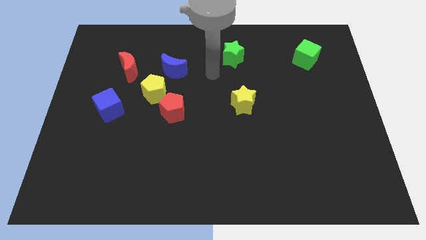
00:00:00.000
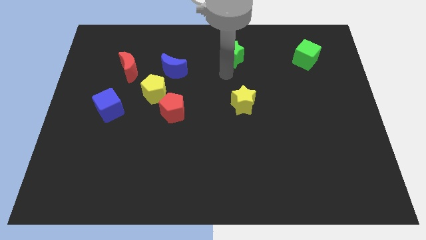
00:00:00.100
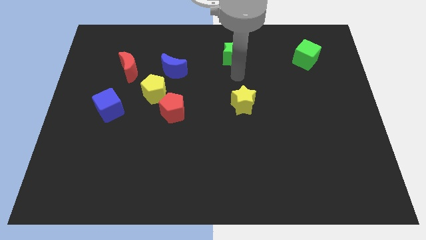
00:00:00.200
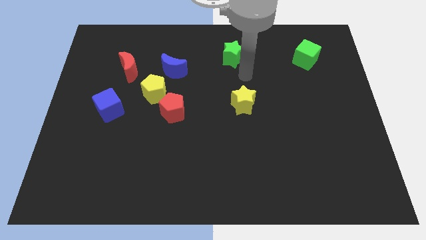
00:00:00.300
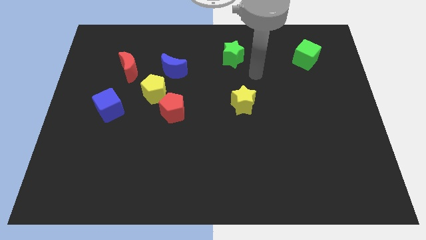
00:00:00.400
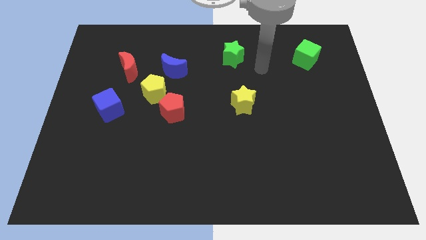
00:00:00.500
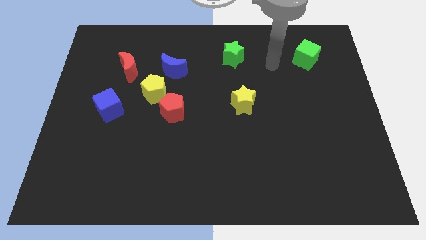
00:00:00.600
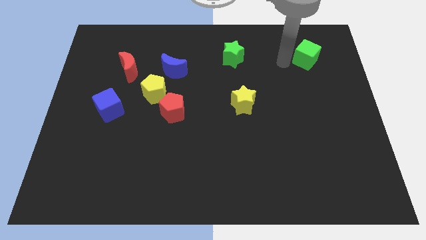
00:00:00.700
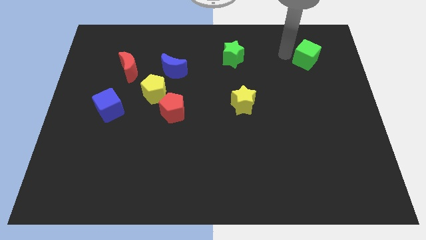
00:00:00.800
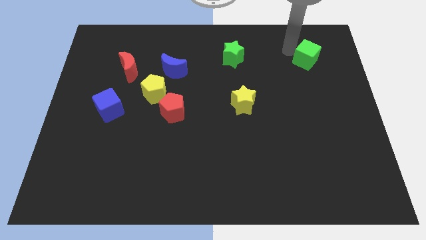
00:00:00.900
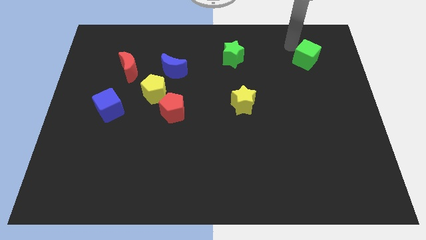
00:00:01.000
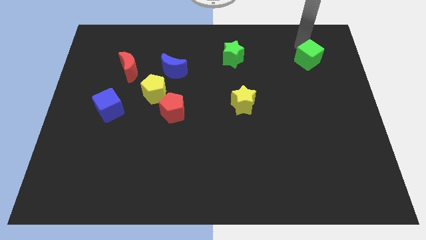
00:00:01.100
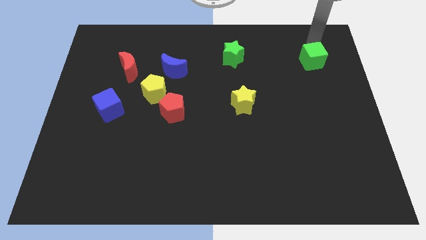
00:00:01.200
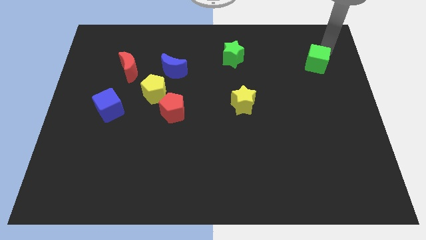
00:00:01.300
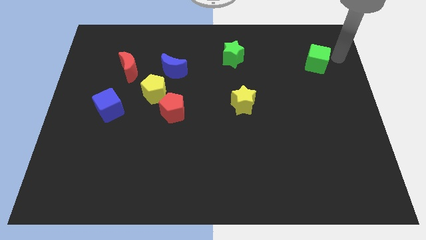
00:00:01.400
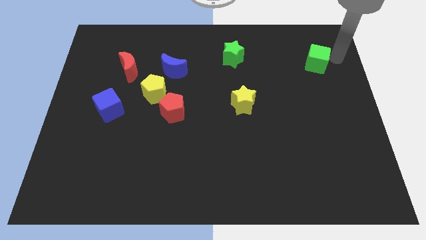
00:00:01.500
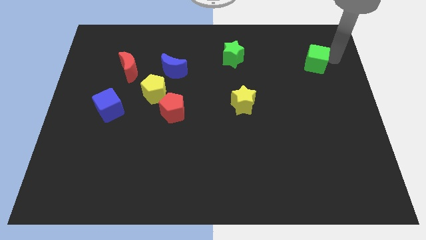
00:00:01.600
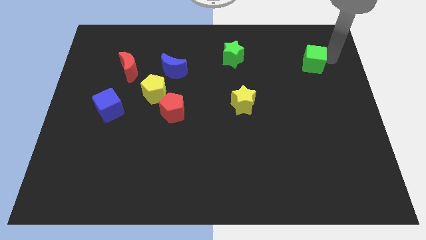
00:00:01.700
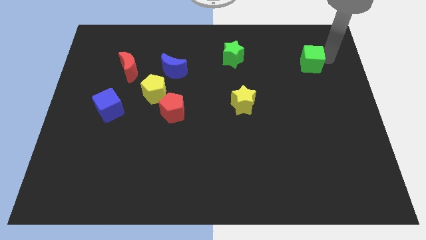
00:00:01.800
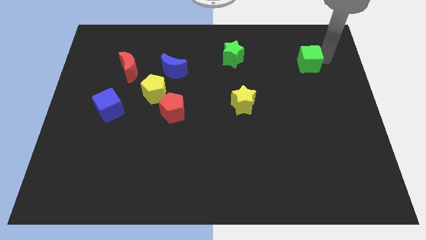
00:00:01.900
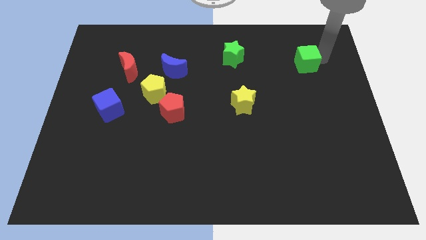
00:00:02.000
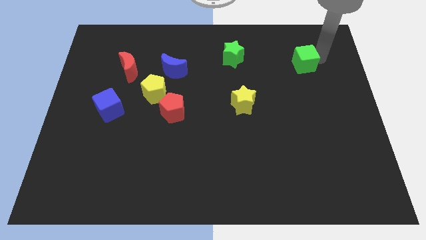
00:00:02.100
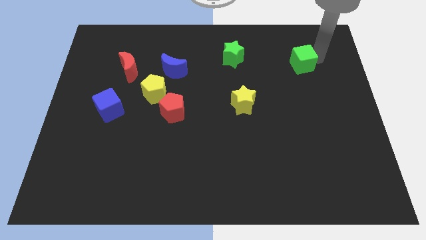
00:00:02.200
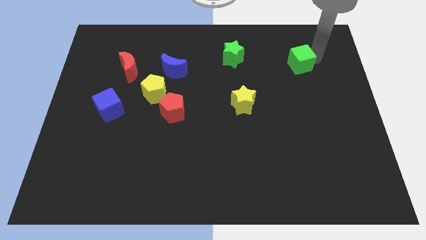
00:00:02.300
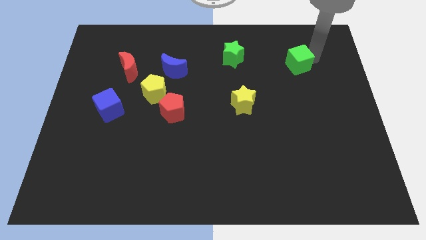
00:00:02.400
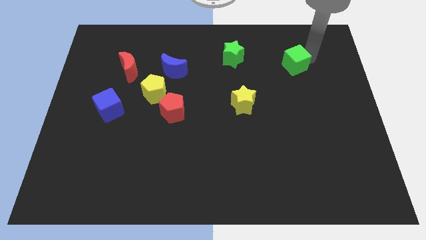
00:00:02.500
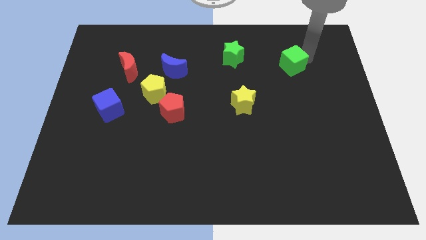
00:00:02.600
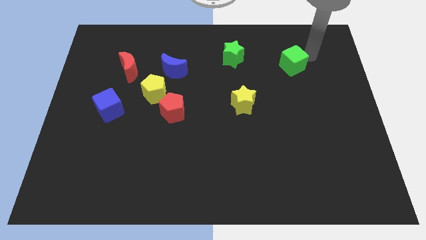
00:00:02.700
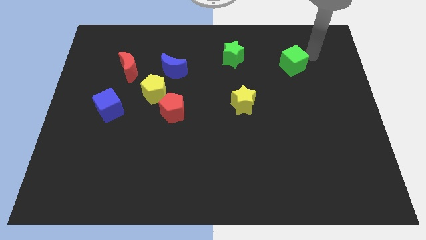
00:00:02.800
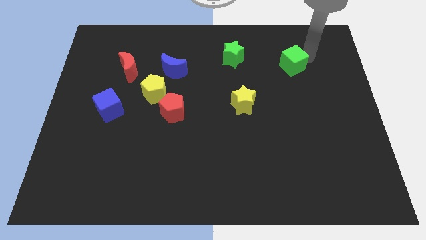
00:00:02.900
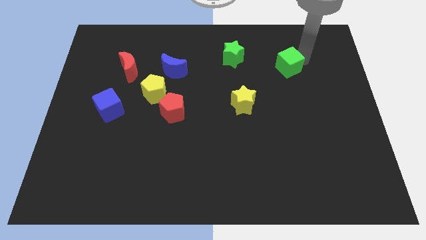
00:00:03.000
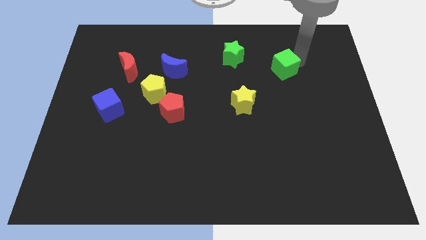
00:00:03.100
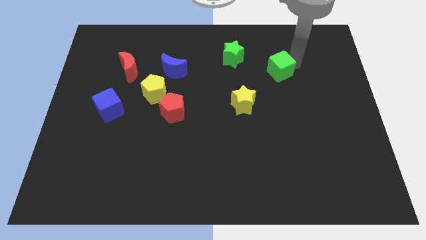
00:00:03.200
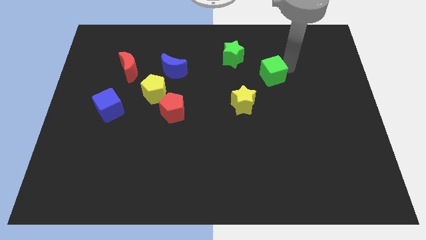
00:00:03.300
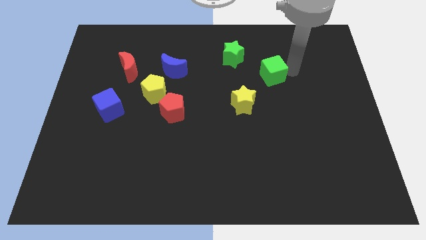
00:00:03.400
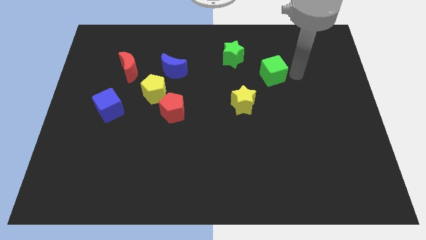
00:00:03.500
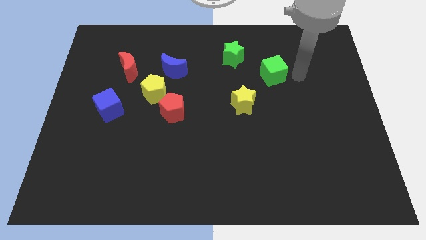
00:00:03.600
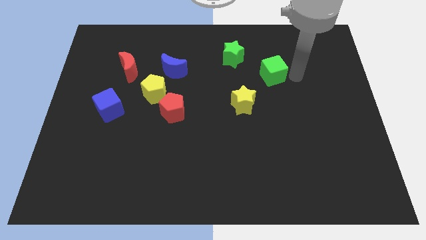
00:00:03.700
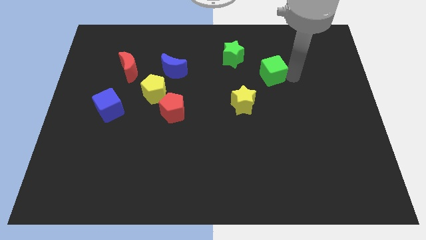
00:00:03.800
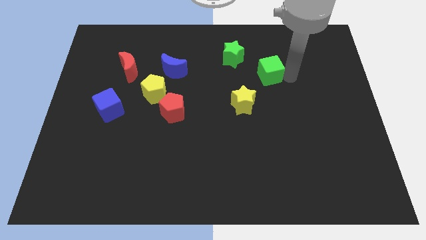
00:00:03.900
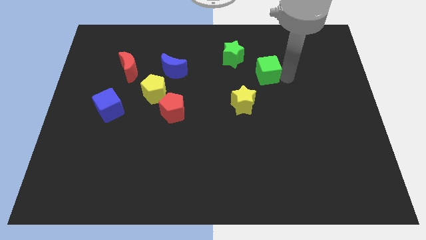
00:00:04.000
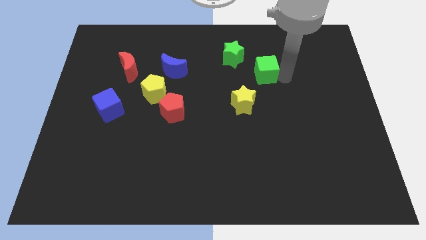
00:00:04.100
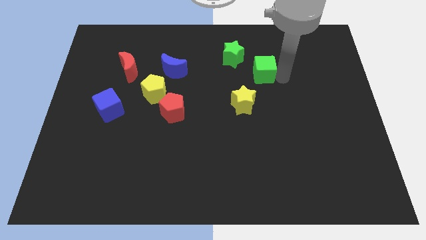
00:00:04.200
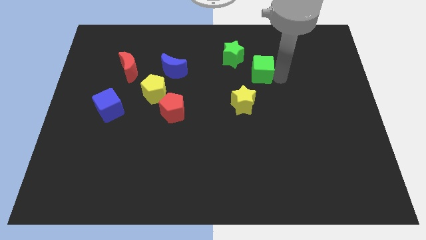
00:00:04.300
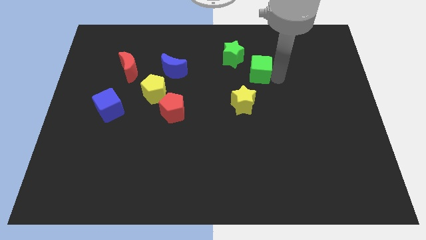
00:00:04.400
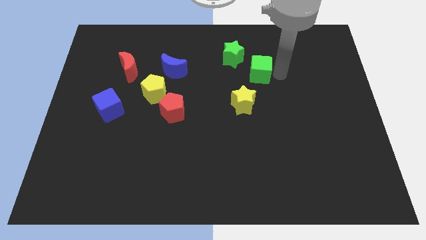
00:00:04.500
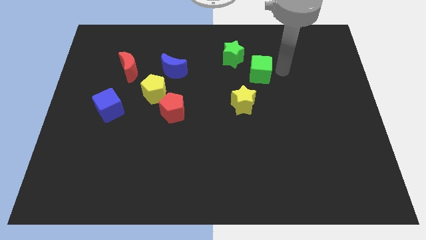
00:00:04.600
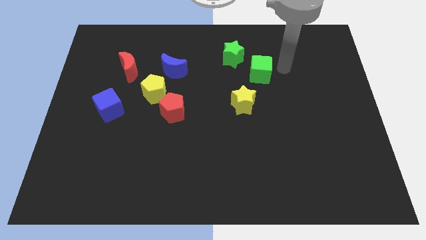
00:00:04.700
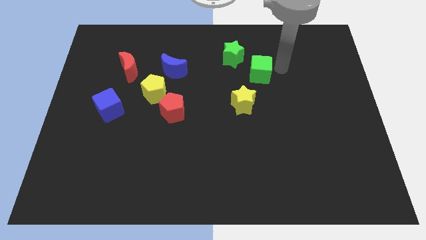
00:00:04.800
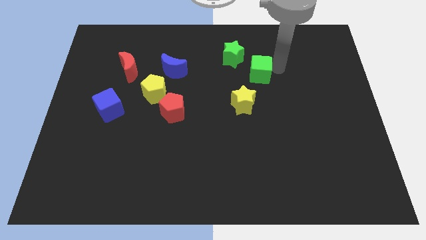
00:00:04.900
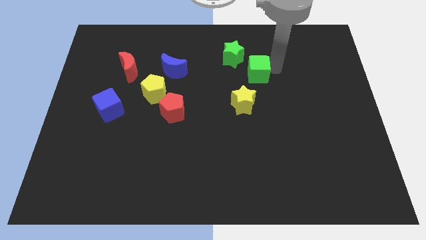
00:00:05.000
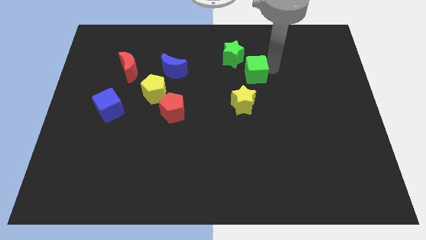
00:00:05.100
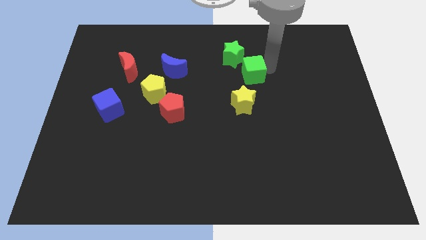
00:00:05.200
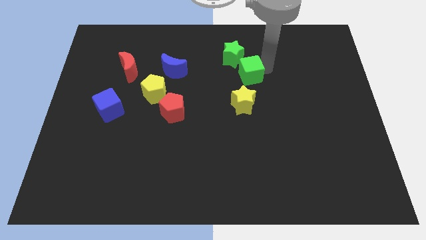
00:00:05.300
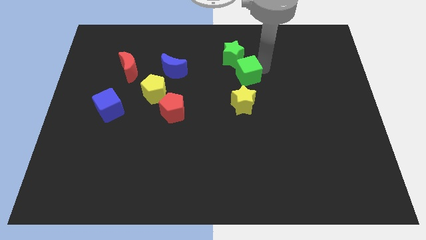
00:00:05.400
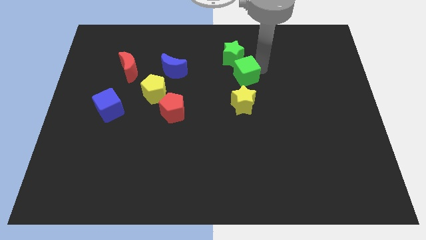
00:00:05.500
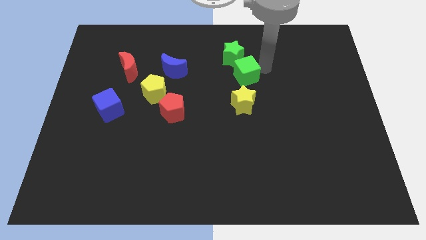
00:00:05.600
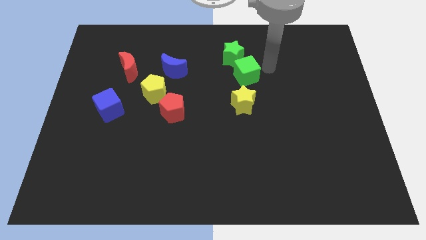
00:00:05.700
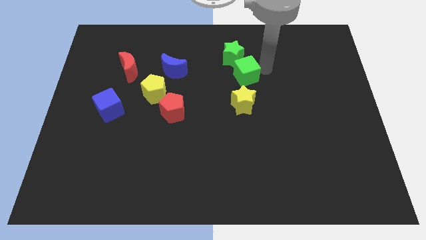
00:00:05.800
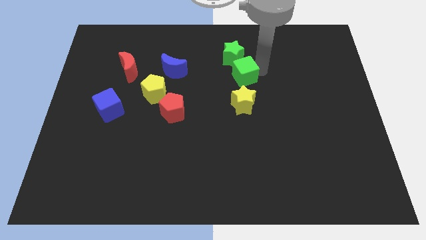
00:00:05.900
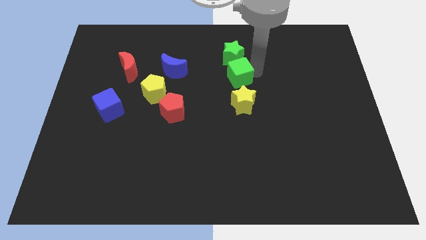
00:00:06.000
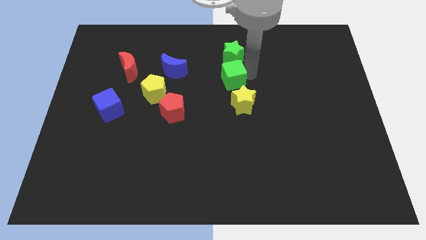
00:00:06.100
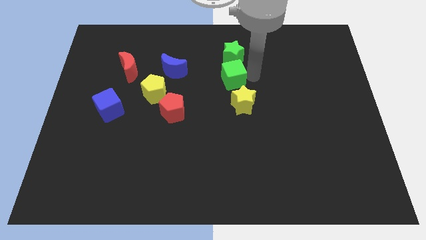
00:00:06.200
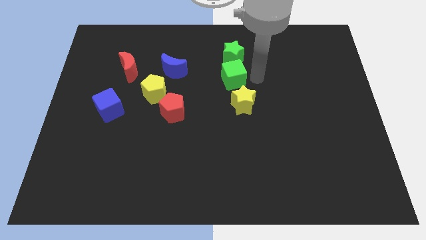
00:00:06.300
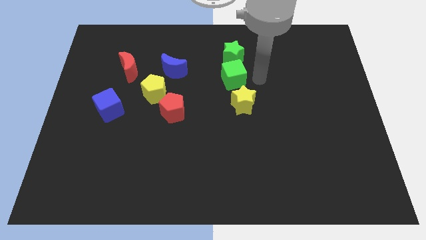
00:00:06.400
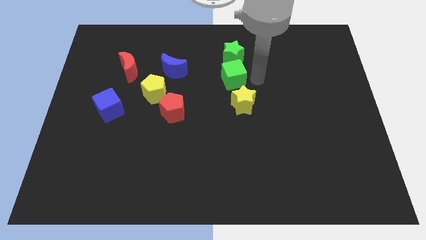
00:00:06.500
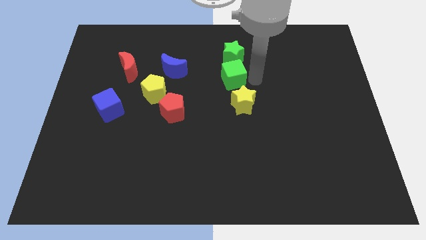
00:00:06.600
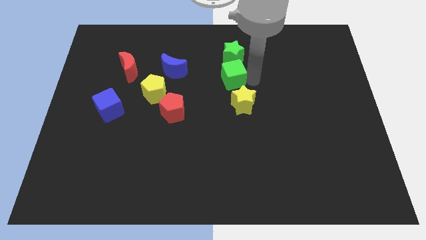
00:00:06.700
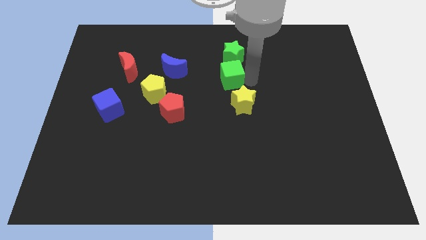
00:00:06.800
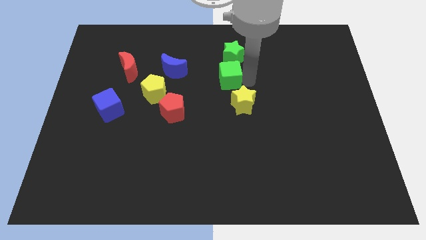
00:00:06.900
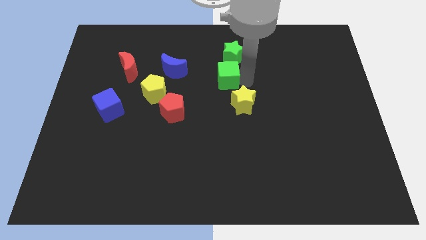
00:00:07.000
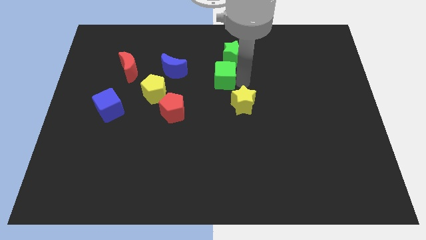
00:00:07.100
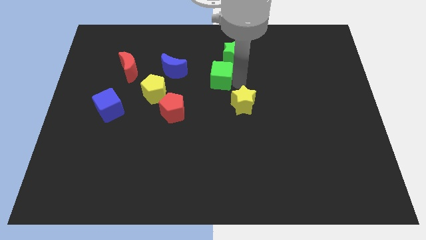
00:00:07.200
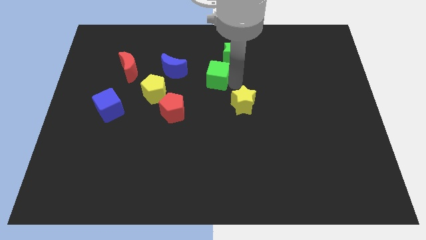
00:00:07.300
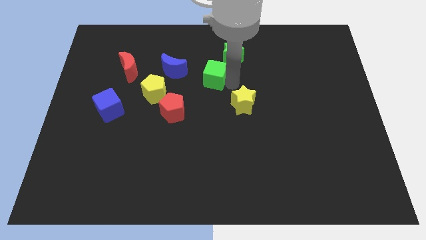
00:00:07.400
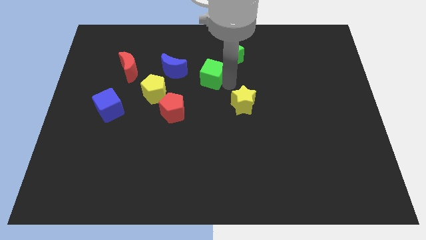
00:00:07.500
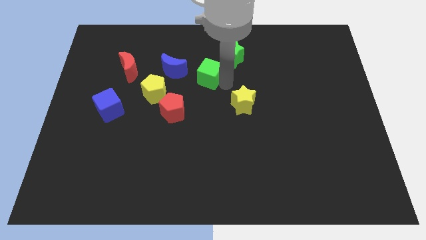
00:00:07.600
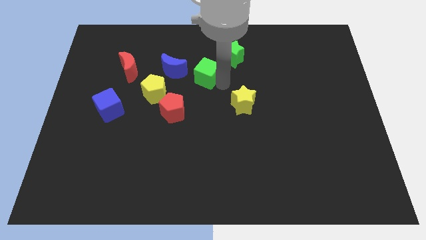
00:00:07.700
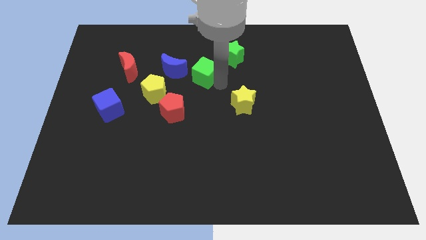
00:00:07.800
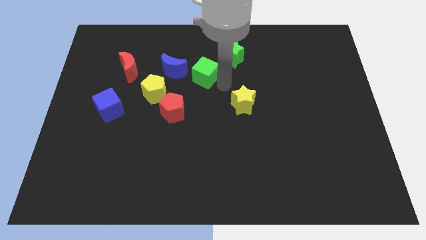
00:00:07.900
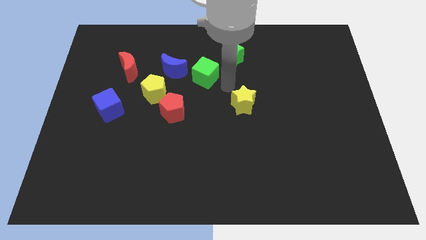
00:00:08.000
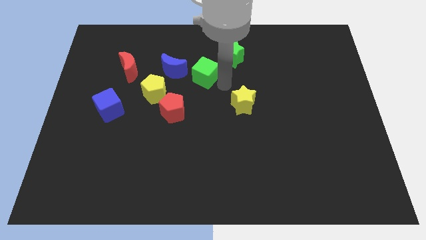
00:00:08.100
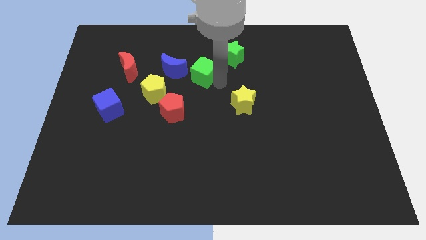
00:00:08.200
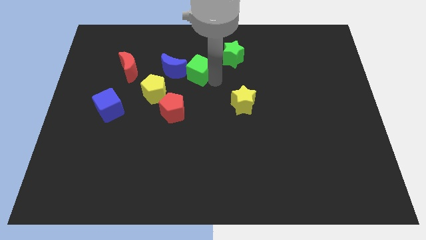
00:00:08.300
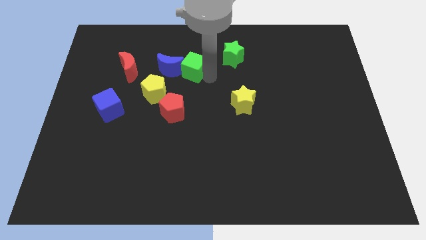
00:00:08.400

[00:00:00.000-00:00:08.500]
slide the green cube to the right of the red moon
